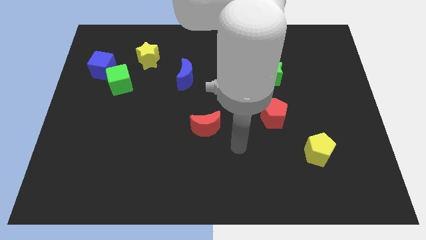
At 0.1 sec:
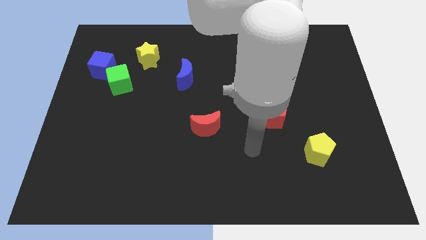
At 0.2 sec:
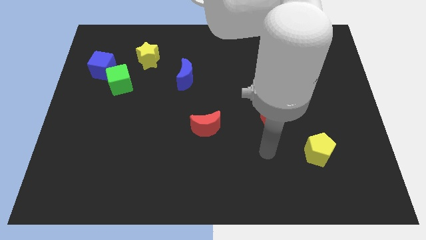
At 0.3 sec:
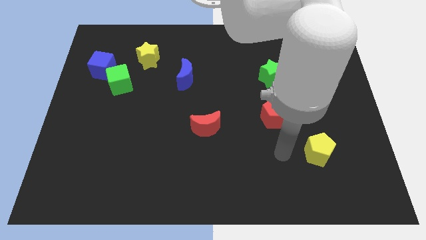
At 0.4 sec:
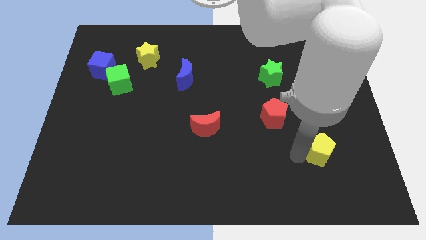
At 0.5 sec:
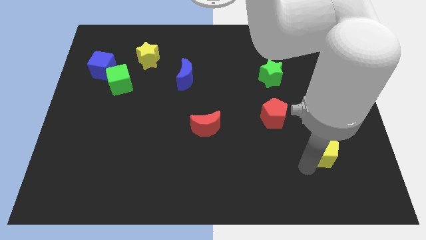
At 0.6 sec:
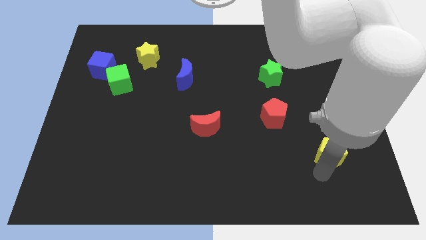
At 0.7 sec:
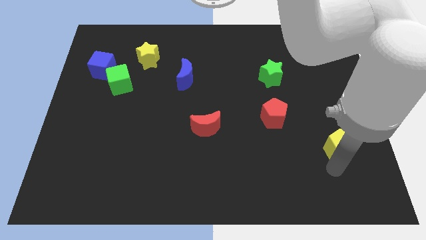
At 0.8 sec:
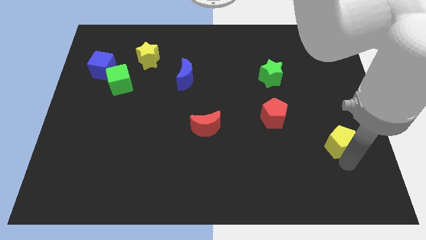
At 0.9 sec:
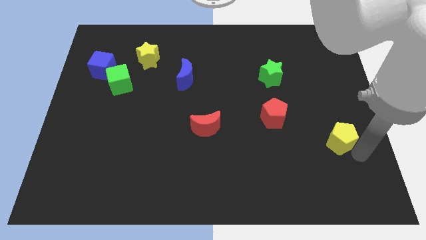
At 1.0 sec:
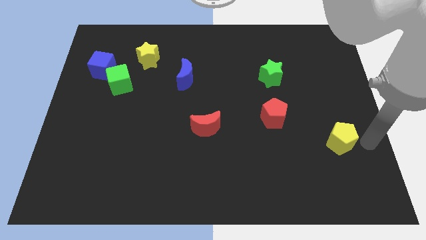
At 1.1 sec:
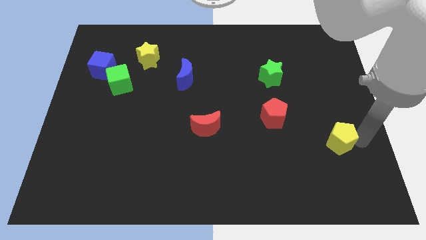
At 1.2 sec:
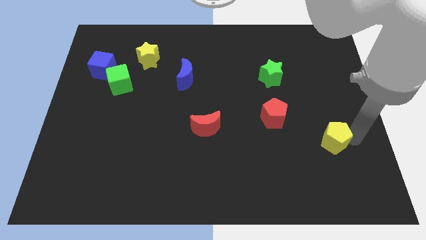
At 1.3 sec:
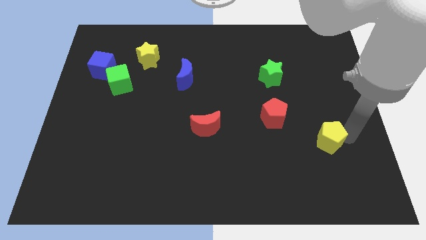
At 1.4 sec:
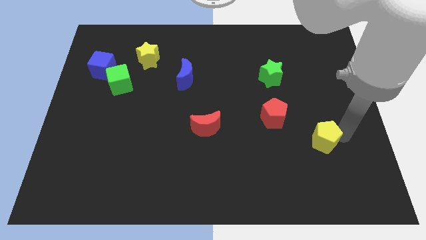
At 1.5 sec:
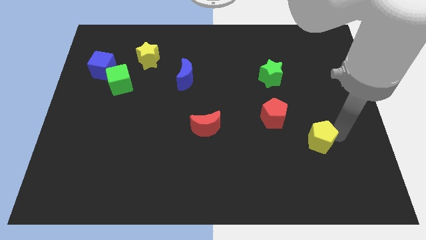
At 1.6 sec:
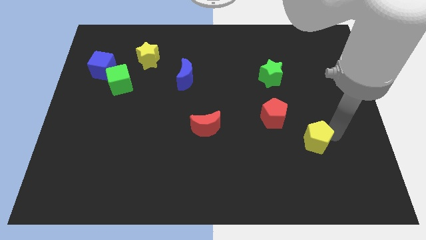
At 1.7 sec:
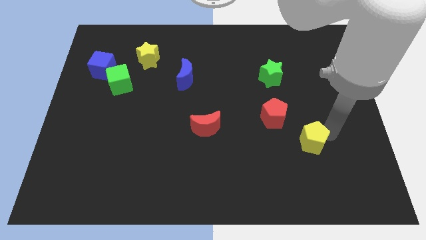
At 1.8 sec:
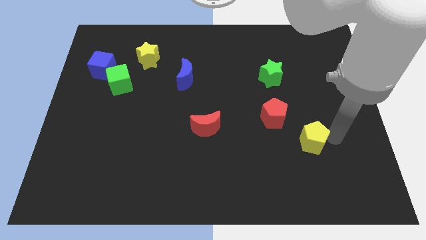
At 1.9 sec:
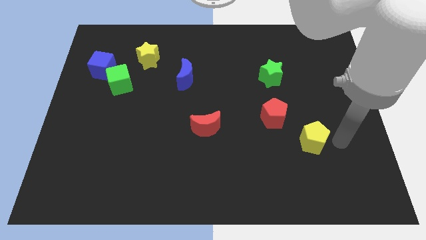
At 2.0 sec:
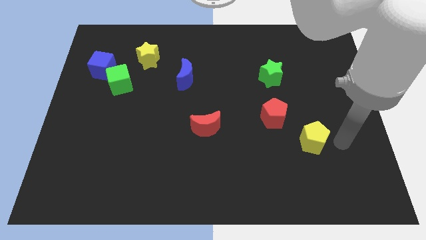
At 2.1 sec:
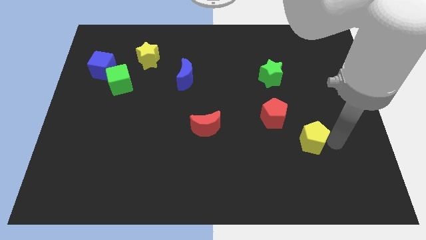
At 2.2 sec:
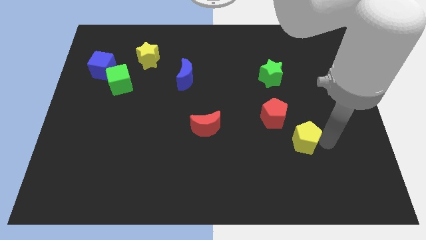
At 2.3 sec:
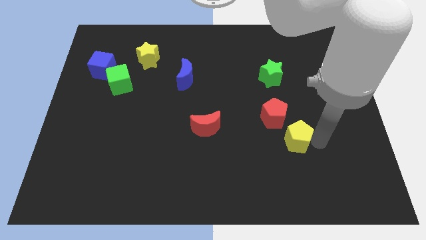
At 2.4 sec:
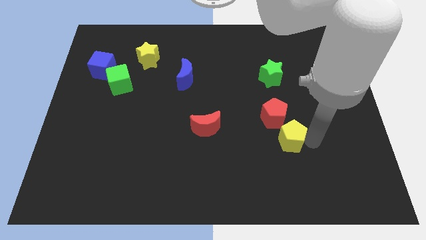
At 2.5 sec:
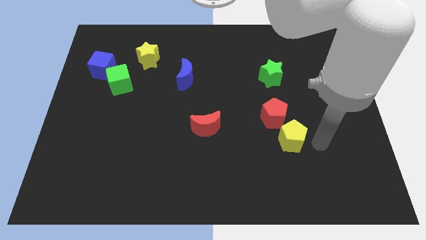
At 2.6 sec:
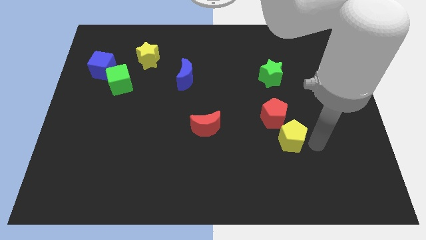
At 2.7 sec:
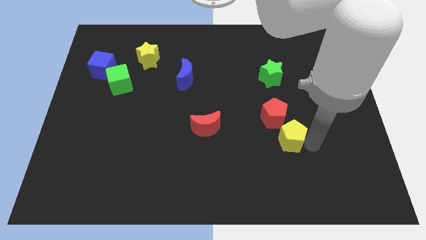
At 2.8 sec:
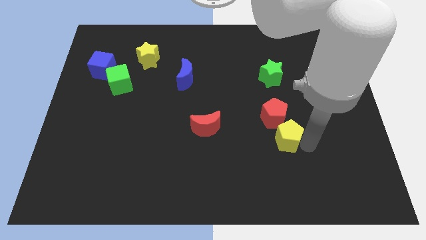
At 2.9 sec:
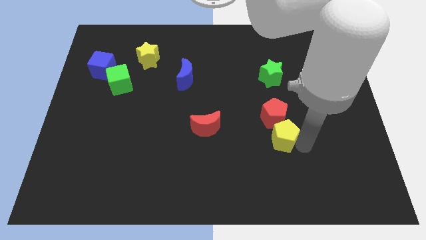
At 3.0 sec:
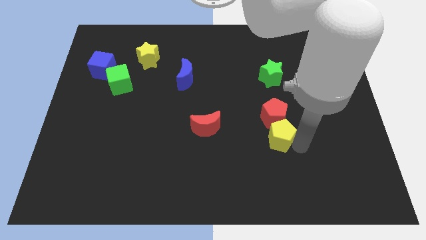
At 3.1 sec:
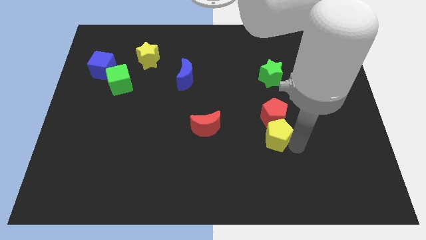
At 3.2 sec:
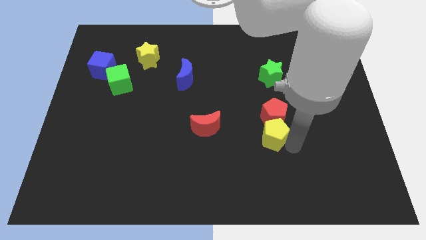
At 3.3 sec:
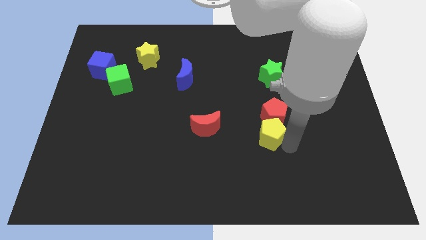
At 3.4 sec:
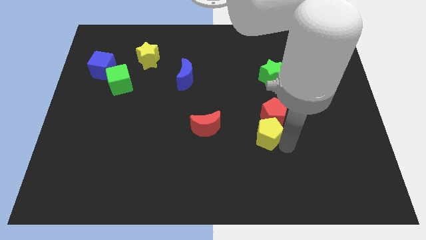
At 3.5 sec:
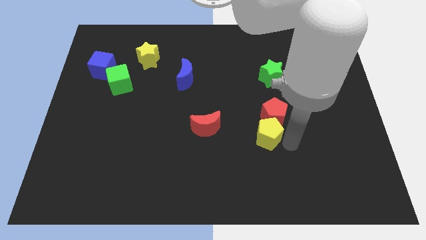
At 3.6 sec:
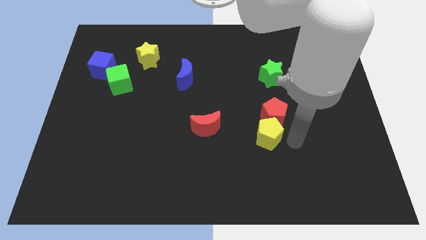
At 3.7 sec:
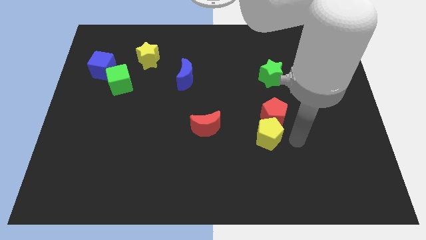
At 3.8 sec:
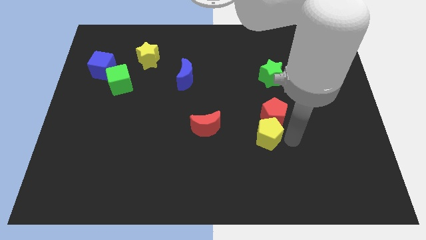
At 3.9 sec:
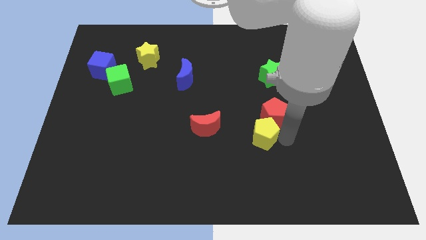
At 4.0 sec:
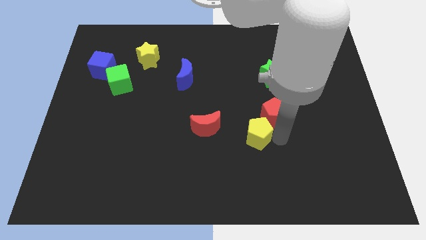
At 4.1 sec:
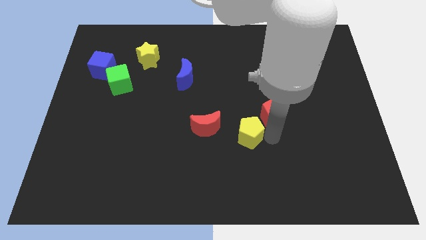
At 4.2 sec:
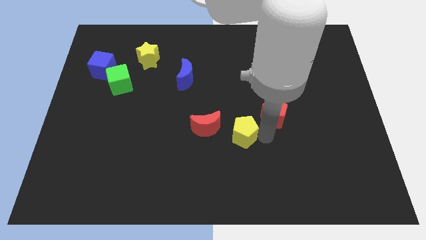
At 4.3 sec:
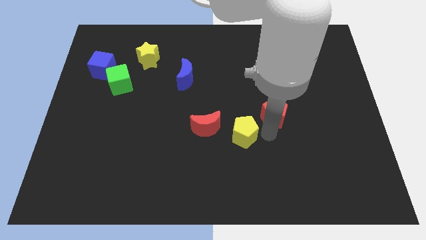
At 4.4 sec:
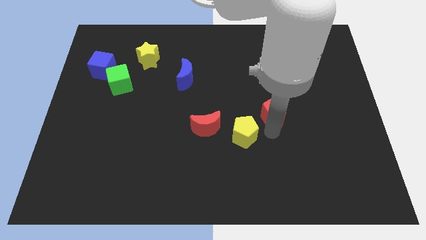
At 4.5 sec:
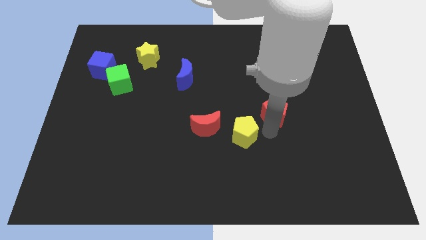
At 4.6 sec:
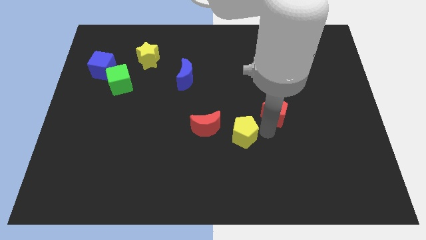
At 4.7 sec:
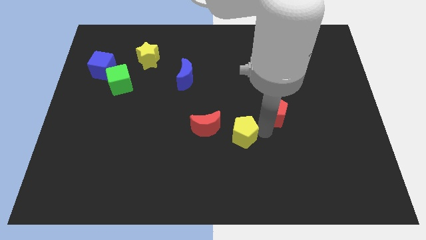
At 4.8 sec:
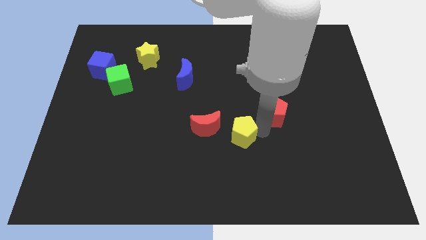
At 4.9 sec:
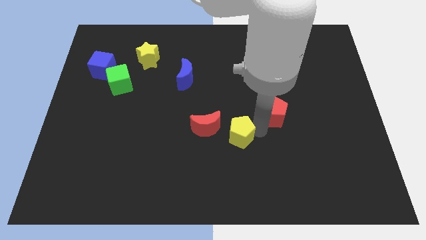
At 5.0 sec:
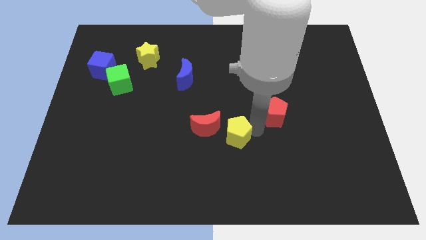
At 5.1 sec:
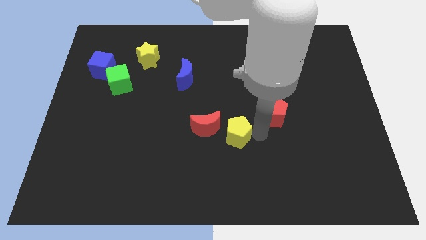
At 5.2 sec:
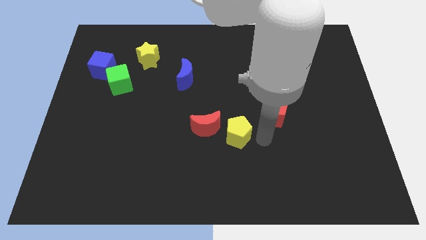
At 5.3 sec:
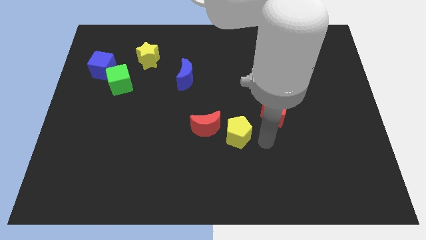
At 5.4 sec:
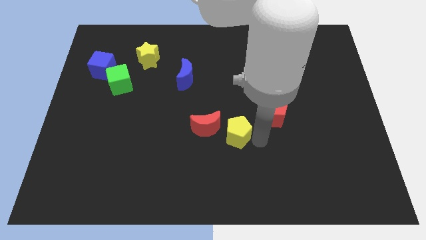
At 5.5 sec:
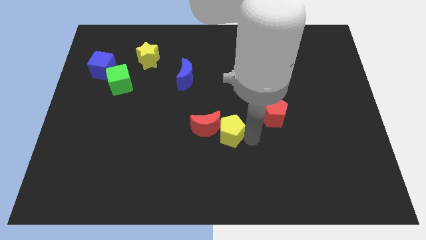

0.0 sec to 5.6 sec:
put the yellow pentagon close to the red moon
